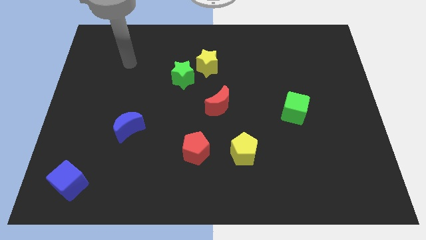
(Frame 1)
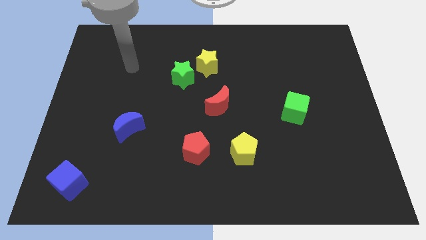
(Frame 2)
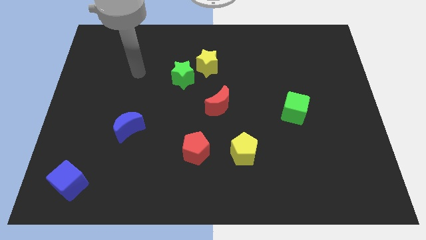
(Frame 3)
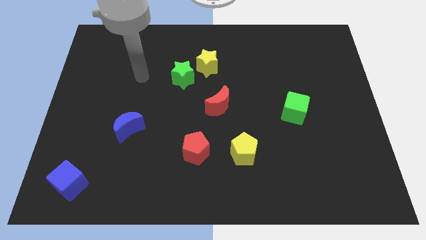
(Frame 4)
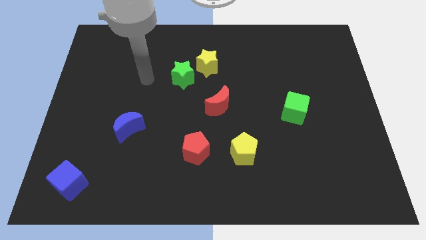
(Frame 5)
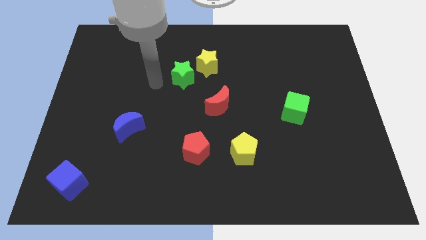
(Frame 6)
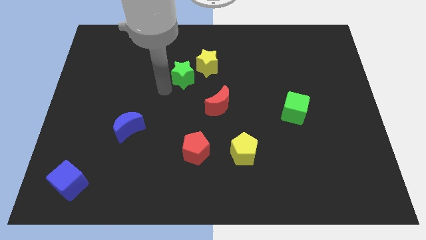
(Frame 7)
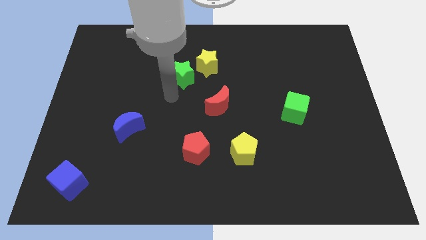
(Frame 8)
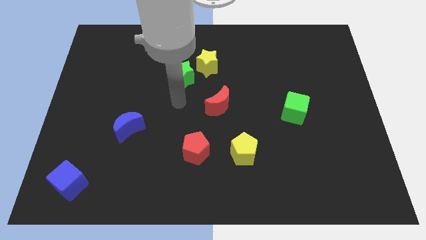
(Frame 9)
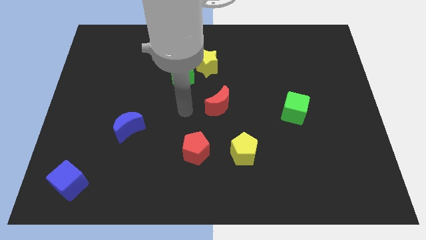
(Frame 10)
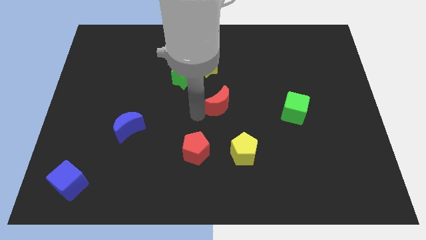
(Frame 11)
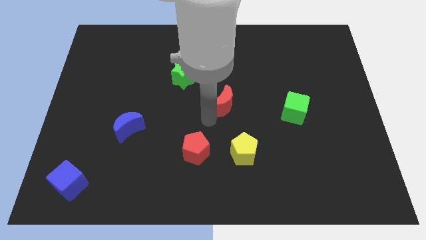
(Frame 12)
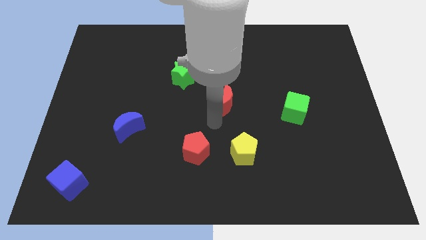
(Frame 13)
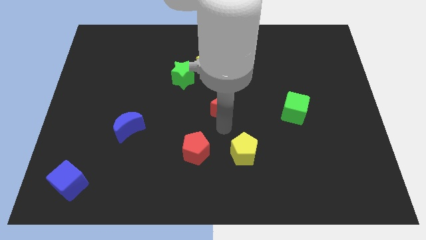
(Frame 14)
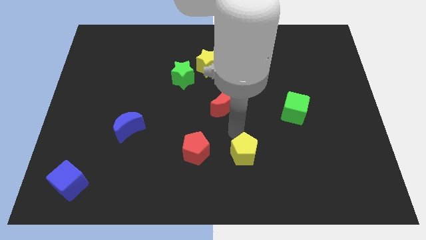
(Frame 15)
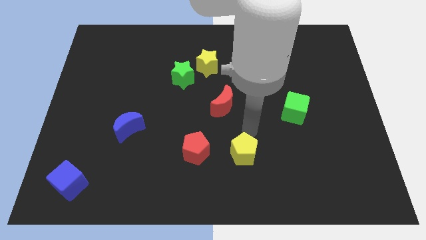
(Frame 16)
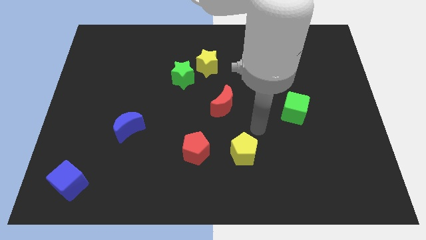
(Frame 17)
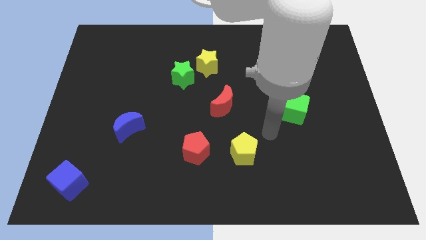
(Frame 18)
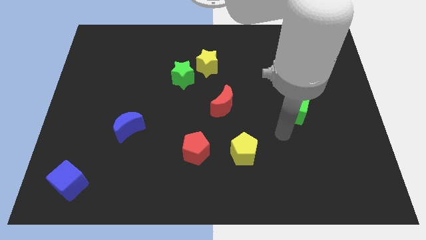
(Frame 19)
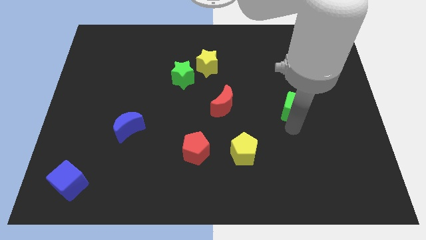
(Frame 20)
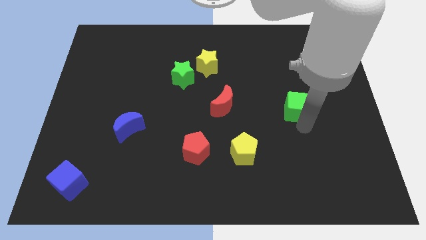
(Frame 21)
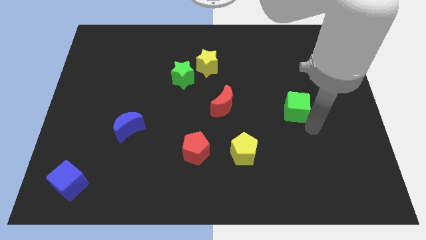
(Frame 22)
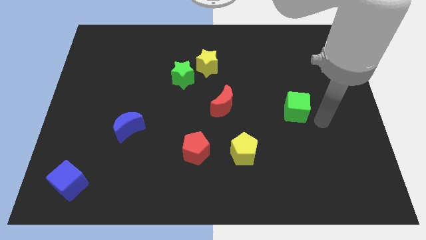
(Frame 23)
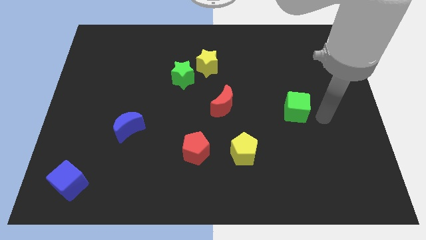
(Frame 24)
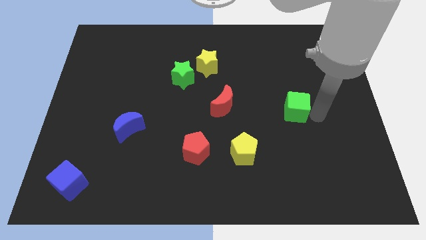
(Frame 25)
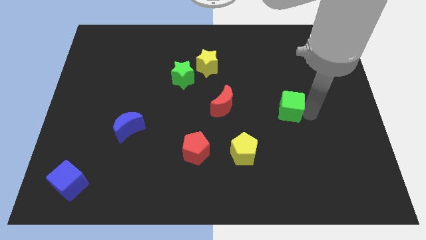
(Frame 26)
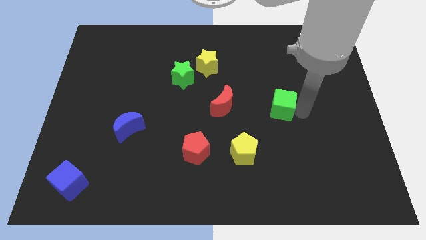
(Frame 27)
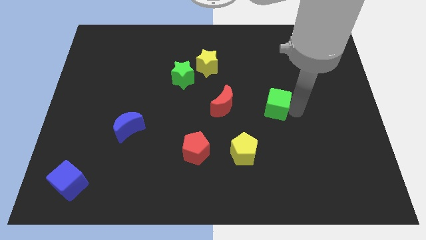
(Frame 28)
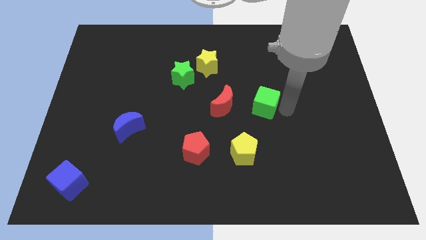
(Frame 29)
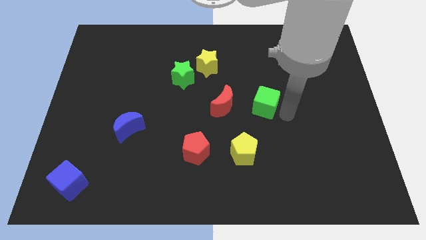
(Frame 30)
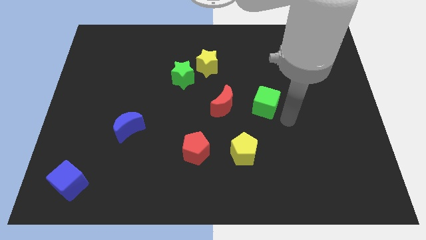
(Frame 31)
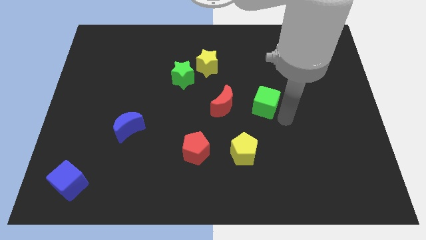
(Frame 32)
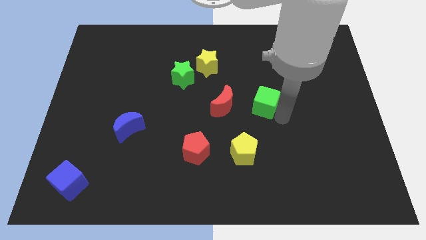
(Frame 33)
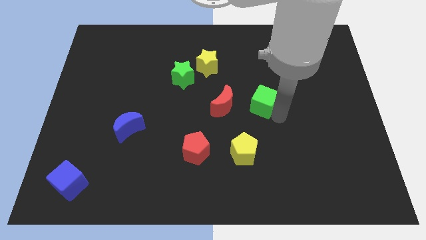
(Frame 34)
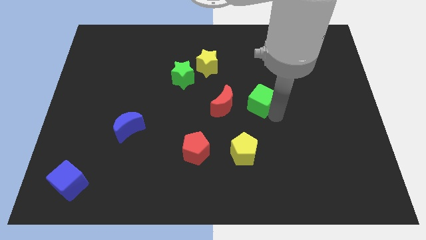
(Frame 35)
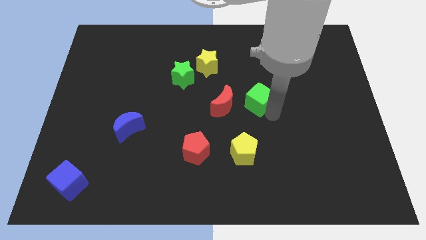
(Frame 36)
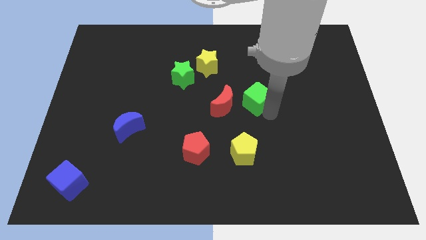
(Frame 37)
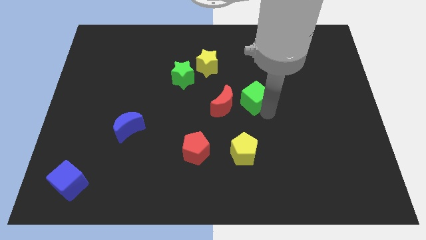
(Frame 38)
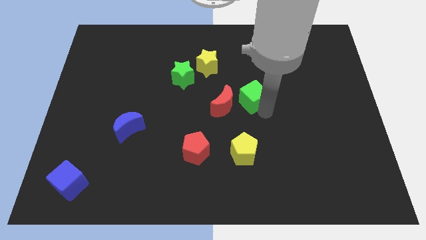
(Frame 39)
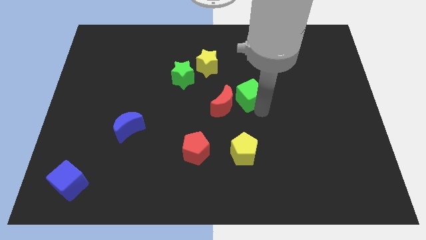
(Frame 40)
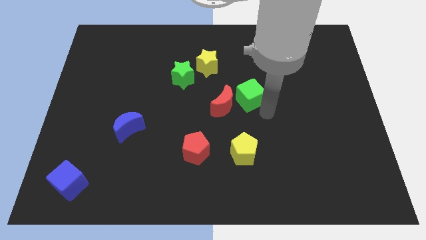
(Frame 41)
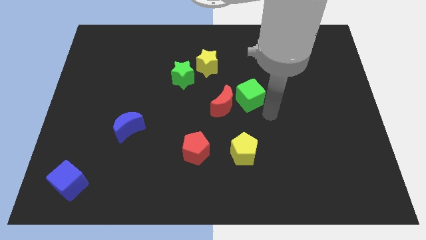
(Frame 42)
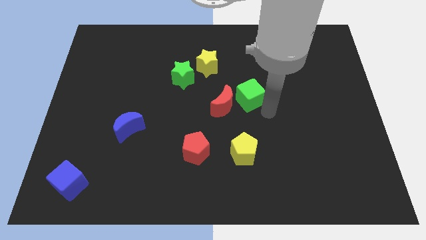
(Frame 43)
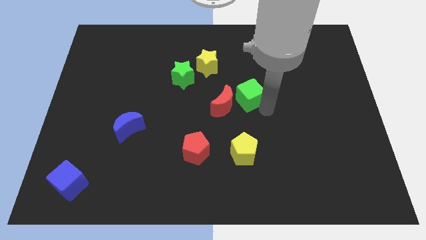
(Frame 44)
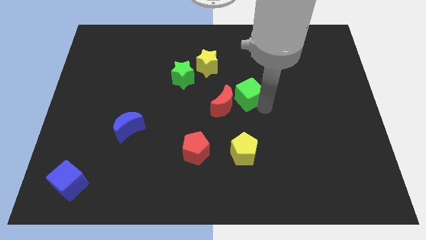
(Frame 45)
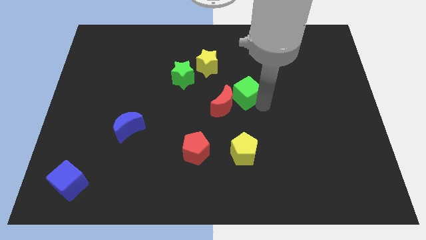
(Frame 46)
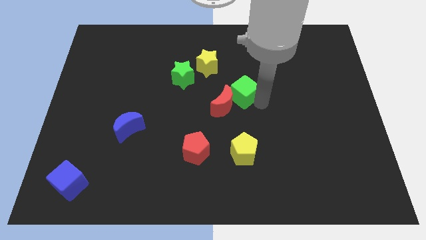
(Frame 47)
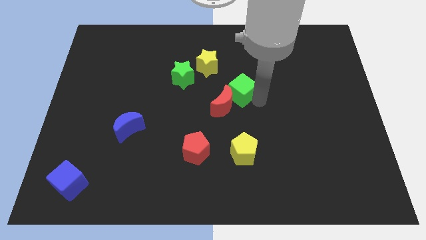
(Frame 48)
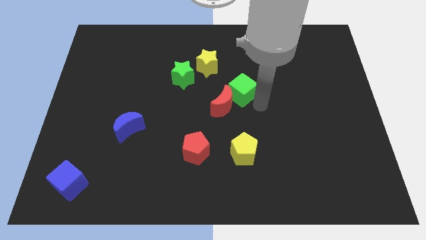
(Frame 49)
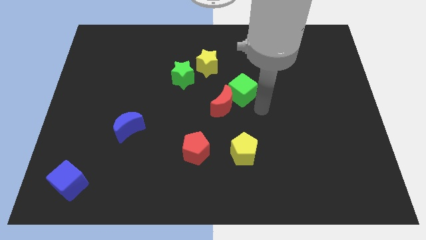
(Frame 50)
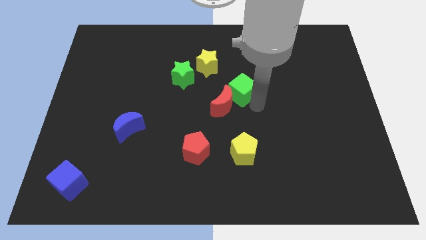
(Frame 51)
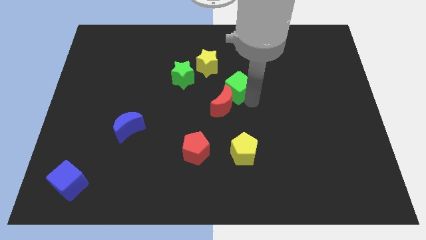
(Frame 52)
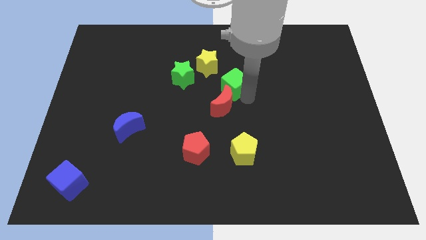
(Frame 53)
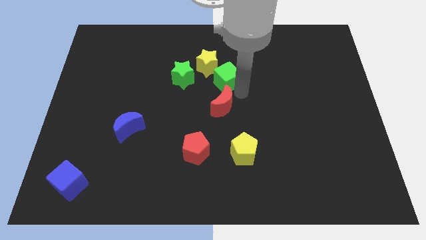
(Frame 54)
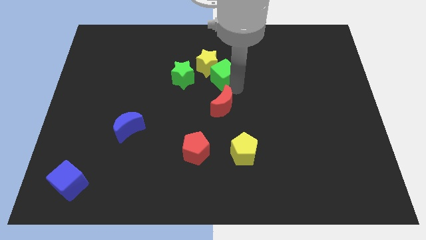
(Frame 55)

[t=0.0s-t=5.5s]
put the green cube next to the yellow star

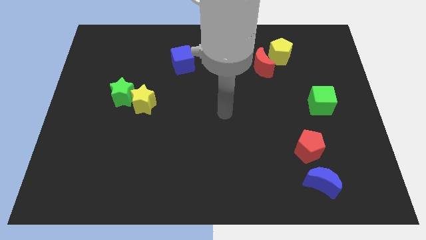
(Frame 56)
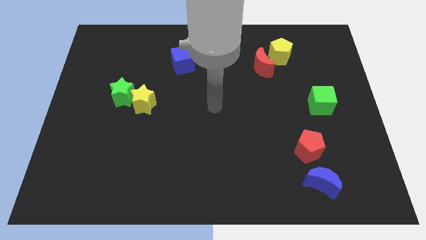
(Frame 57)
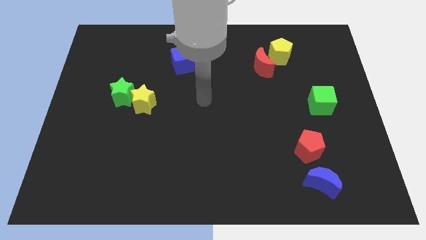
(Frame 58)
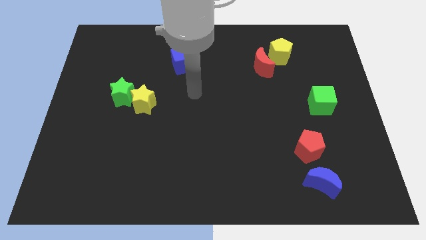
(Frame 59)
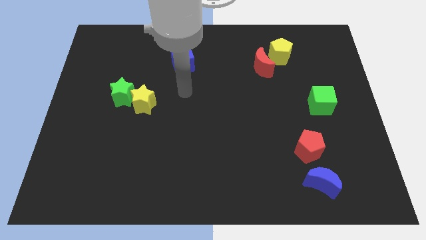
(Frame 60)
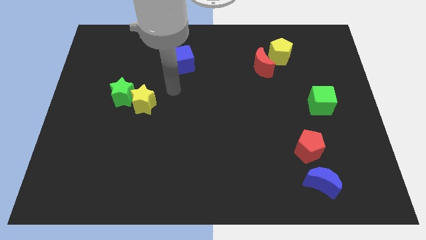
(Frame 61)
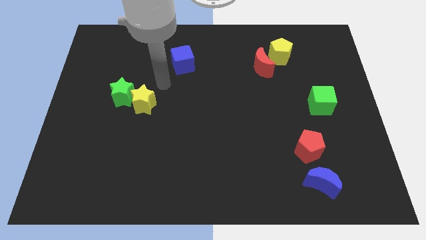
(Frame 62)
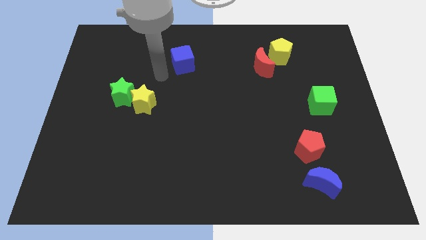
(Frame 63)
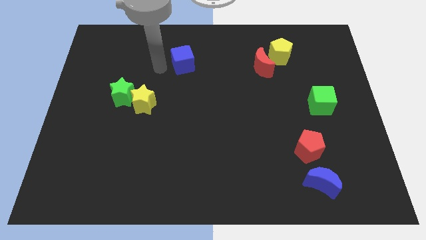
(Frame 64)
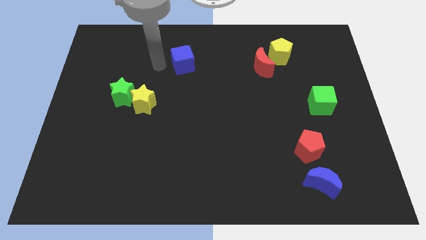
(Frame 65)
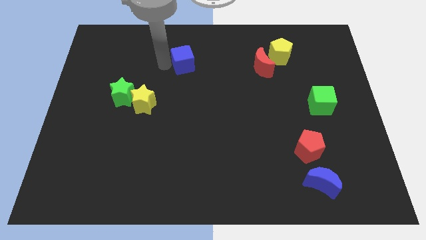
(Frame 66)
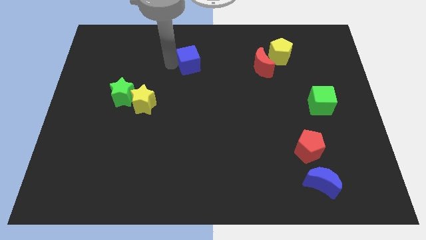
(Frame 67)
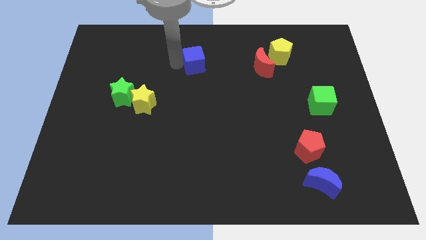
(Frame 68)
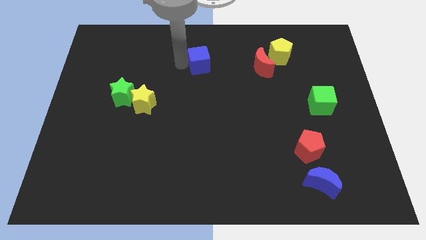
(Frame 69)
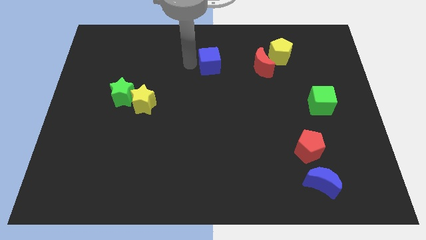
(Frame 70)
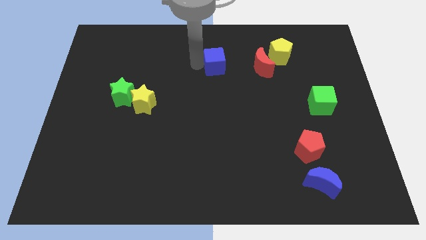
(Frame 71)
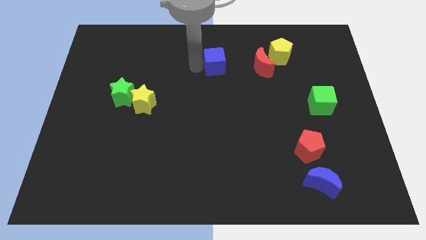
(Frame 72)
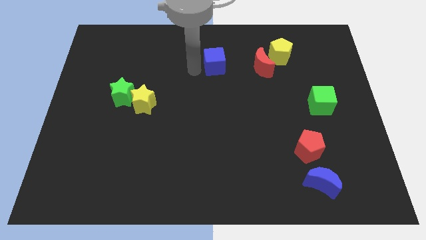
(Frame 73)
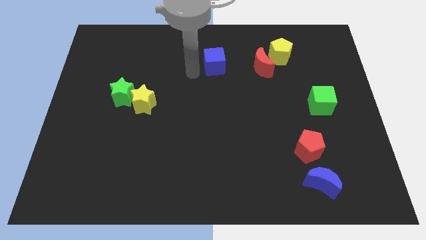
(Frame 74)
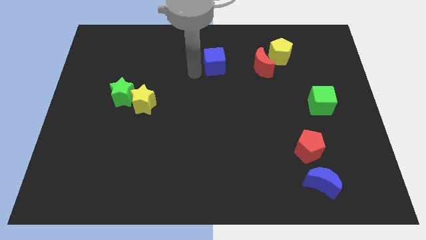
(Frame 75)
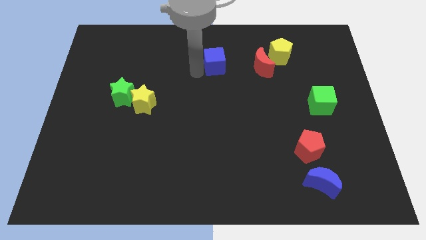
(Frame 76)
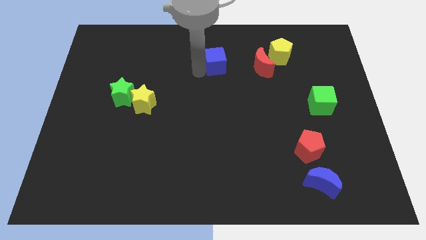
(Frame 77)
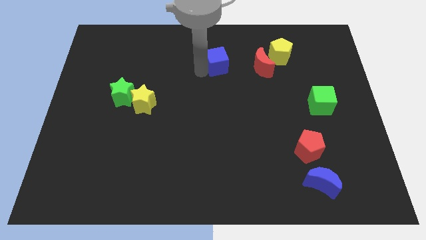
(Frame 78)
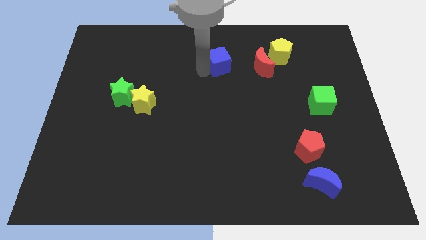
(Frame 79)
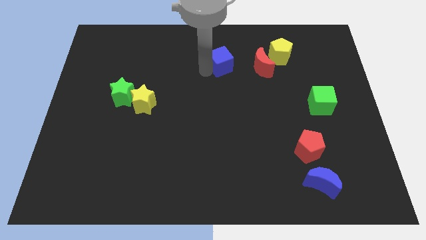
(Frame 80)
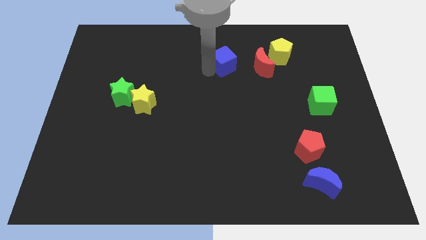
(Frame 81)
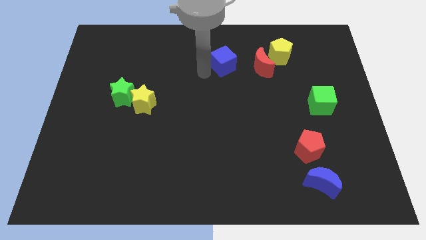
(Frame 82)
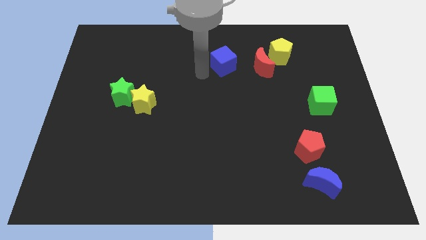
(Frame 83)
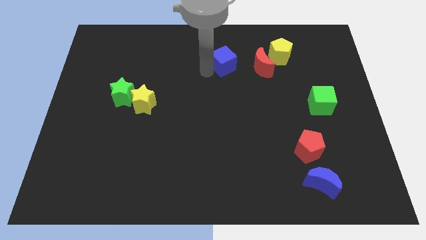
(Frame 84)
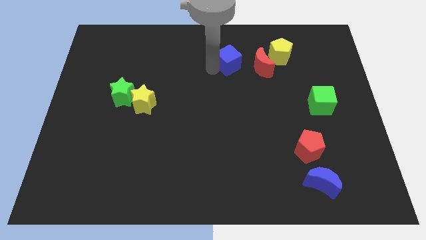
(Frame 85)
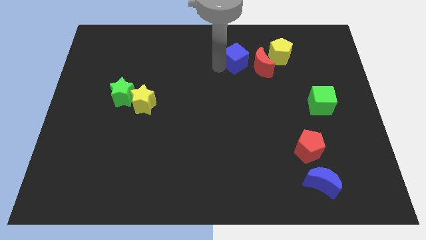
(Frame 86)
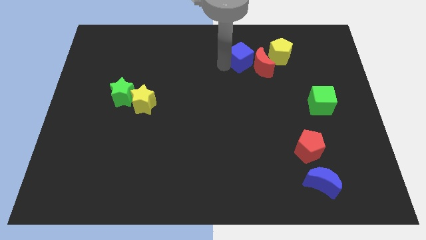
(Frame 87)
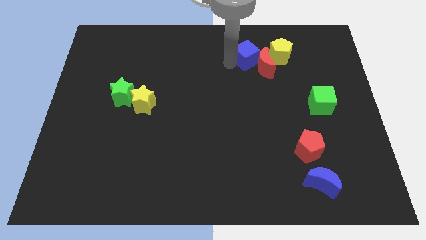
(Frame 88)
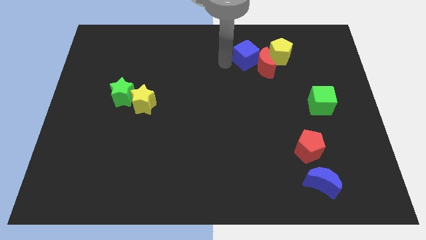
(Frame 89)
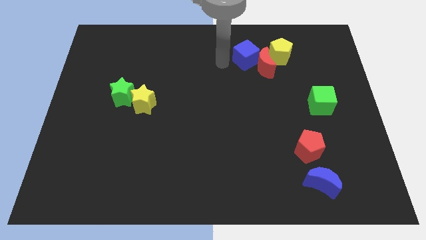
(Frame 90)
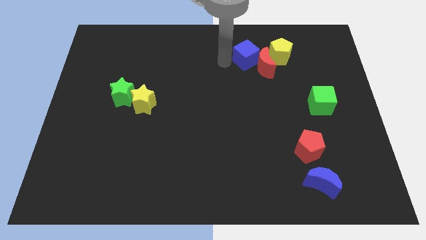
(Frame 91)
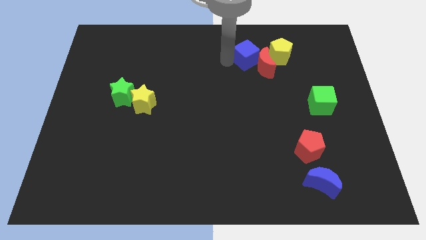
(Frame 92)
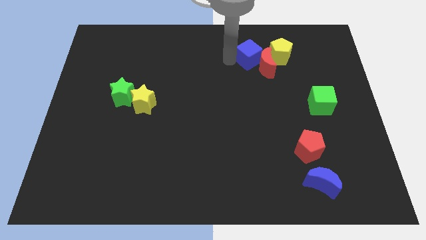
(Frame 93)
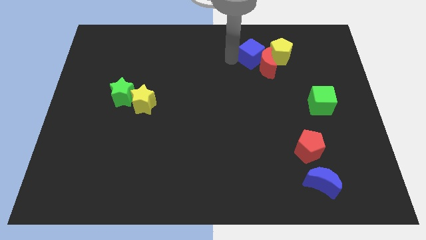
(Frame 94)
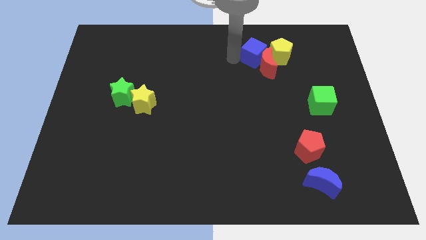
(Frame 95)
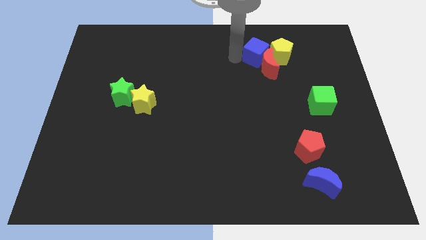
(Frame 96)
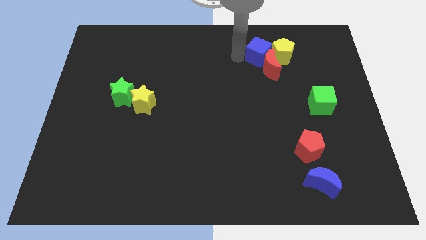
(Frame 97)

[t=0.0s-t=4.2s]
move the blue cube next to the yellow pentagon
